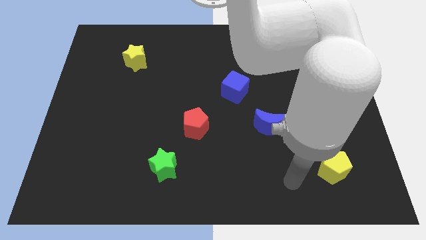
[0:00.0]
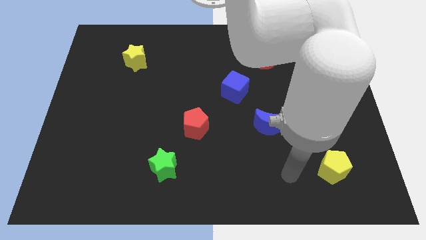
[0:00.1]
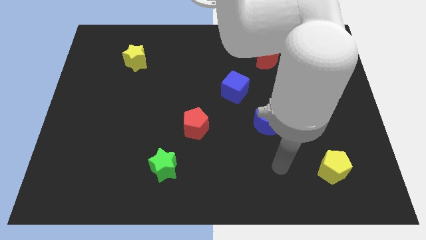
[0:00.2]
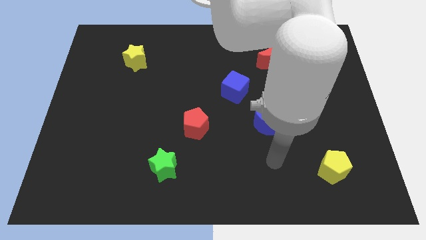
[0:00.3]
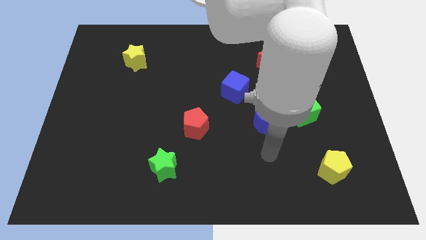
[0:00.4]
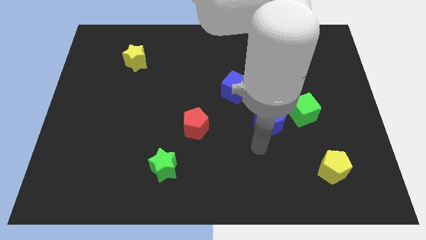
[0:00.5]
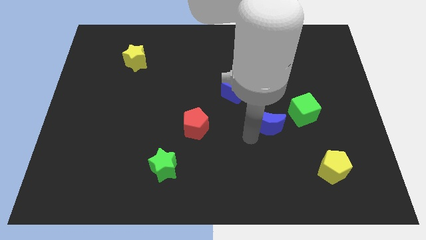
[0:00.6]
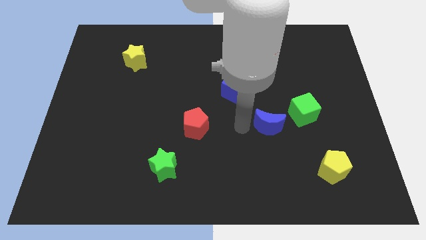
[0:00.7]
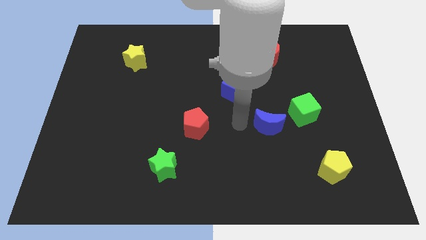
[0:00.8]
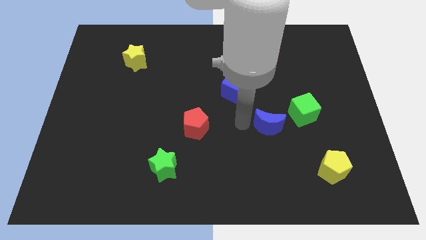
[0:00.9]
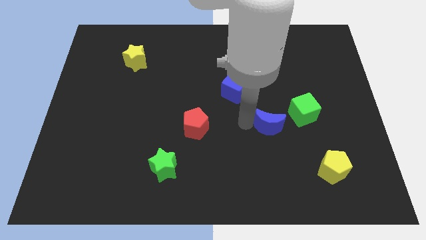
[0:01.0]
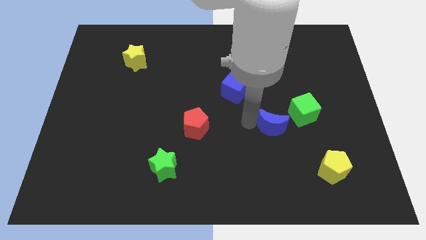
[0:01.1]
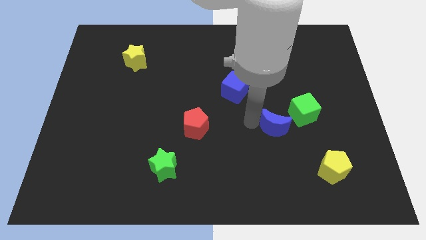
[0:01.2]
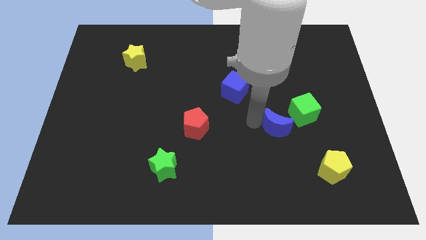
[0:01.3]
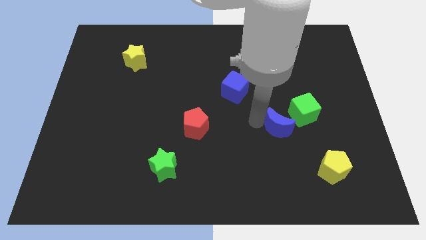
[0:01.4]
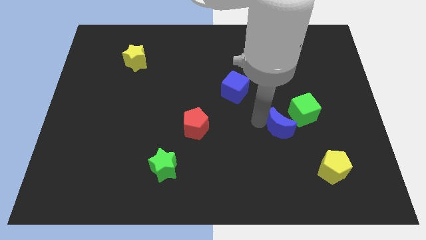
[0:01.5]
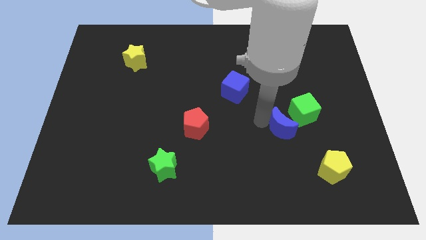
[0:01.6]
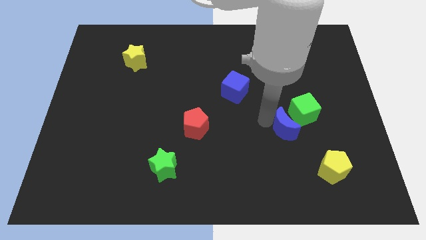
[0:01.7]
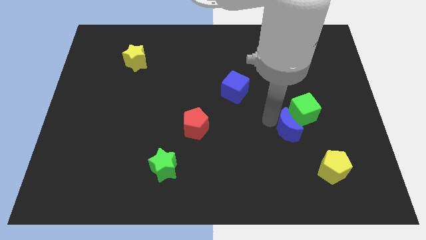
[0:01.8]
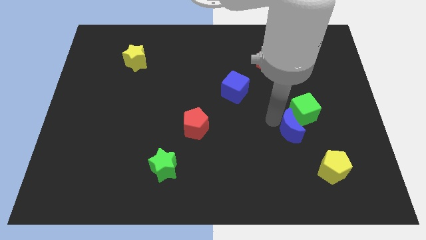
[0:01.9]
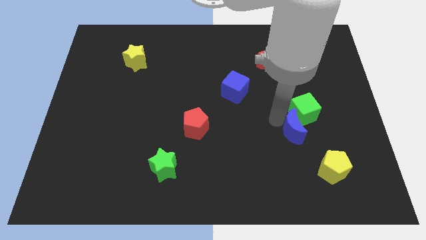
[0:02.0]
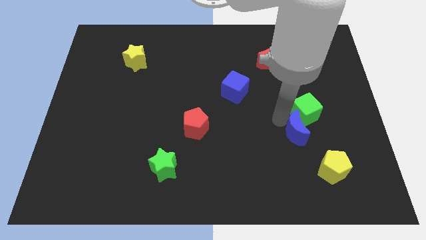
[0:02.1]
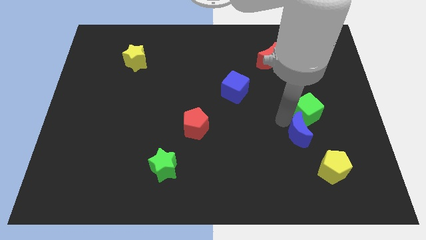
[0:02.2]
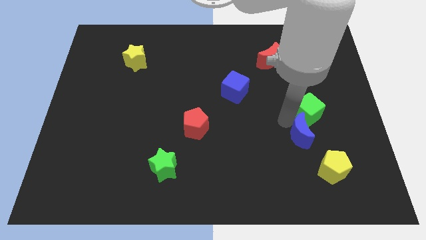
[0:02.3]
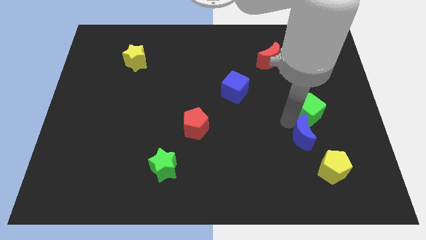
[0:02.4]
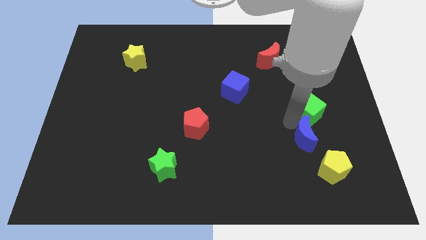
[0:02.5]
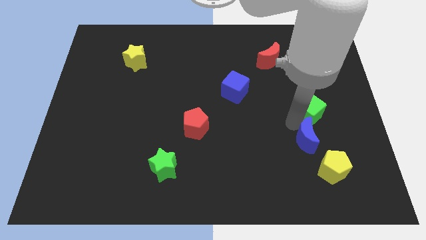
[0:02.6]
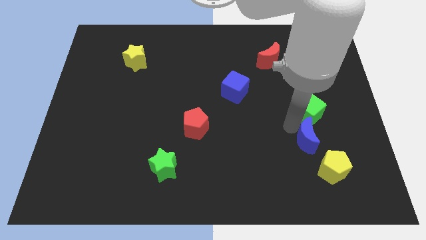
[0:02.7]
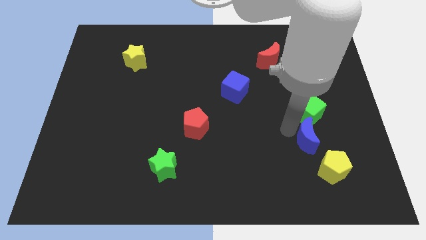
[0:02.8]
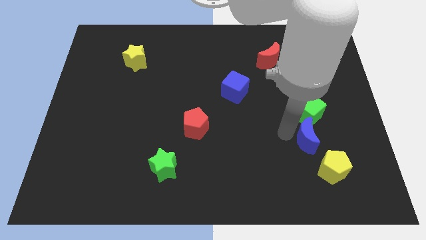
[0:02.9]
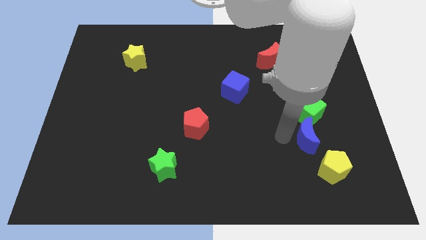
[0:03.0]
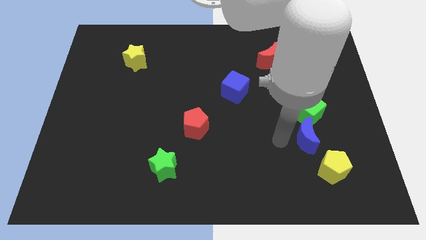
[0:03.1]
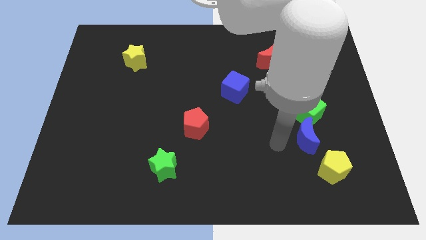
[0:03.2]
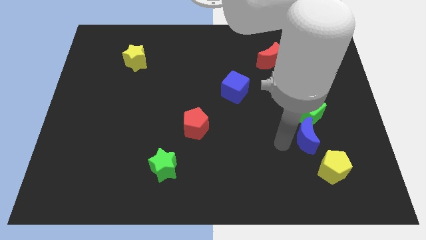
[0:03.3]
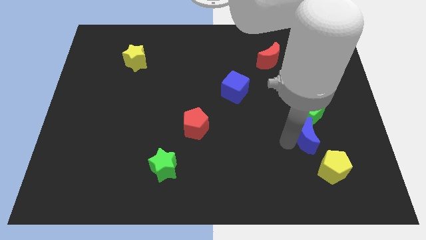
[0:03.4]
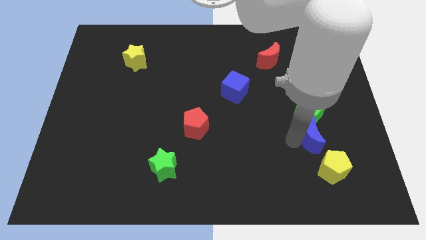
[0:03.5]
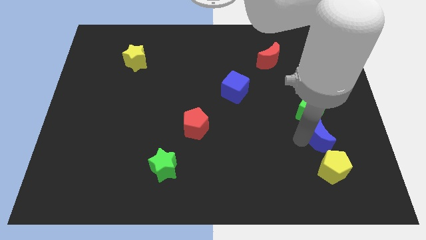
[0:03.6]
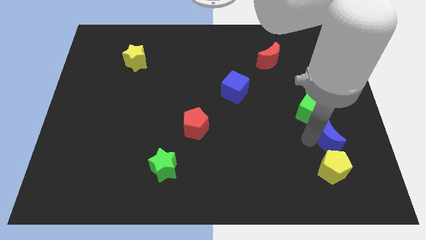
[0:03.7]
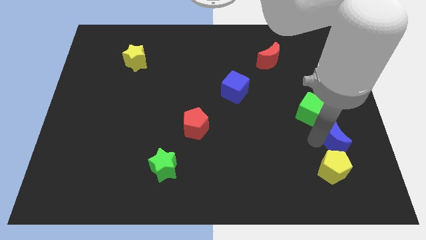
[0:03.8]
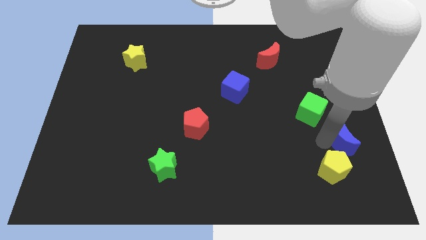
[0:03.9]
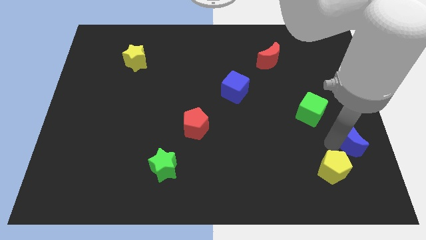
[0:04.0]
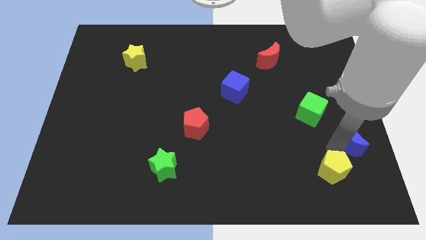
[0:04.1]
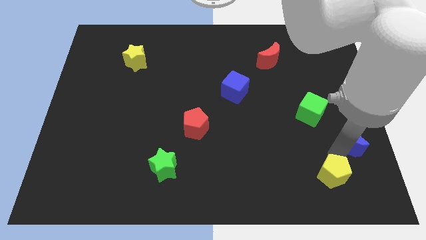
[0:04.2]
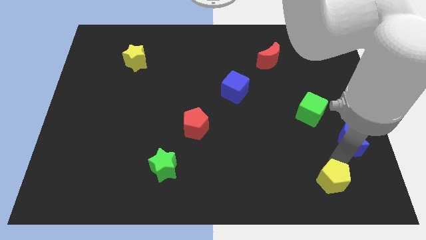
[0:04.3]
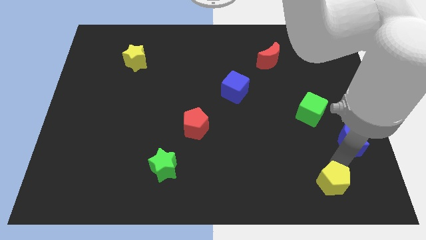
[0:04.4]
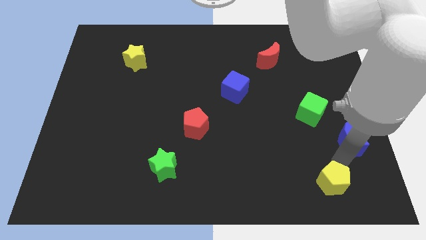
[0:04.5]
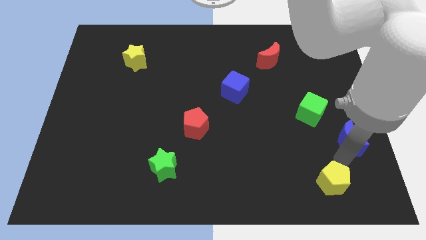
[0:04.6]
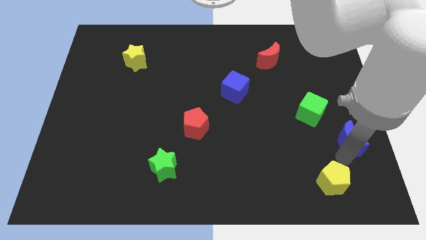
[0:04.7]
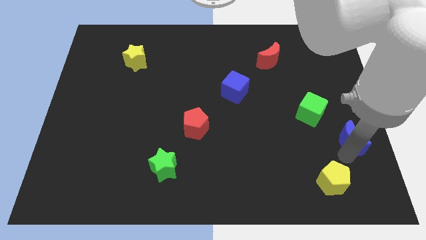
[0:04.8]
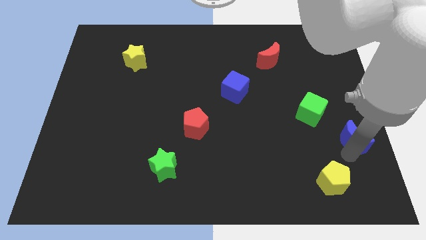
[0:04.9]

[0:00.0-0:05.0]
push the blue moon to the right side of the board

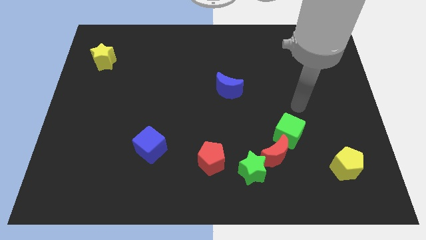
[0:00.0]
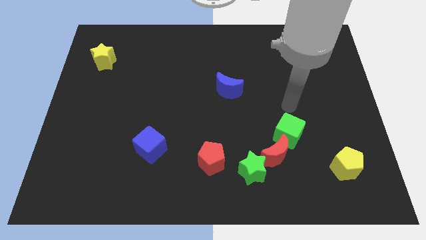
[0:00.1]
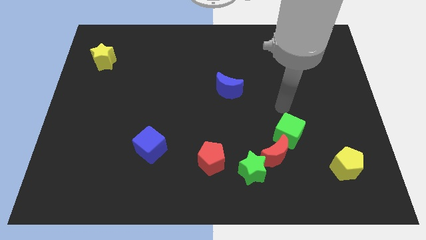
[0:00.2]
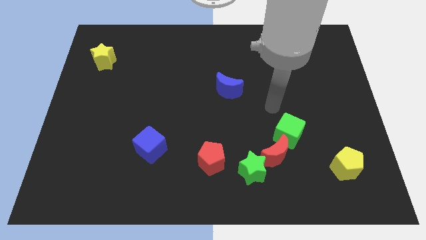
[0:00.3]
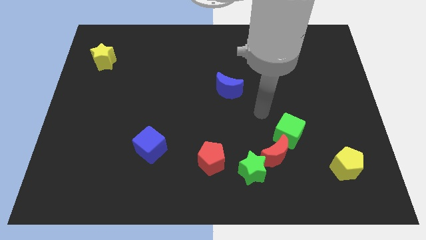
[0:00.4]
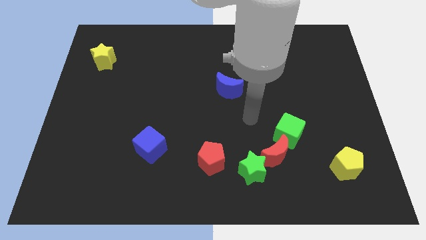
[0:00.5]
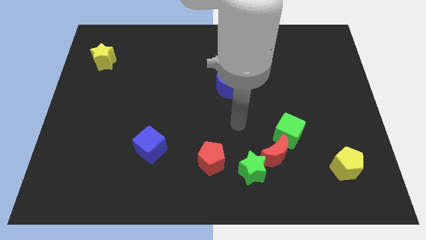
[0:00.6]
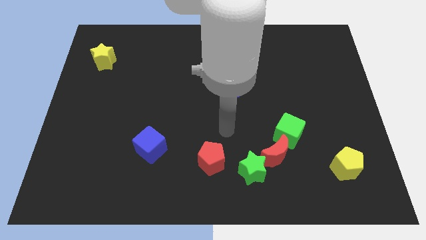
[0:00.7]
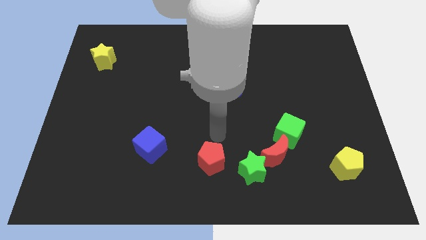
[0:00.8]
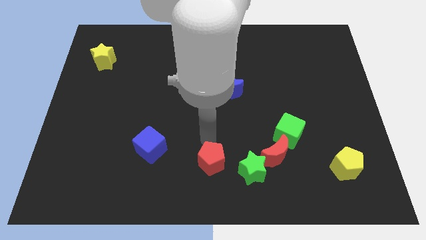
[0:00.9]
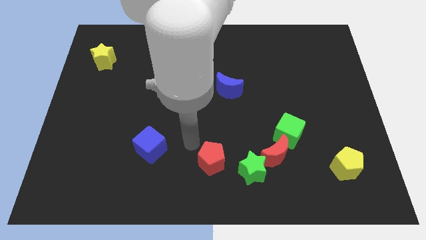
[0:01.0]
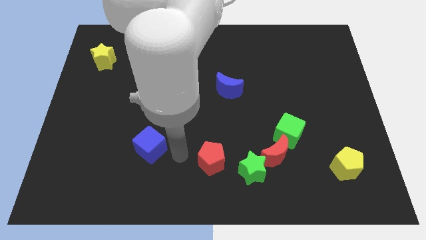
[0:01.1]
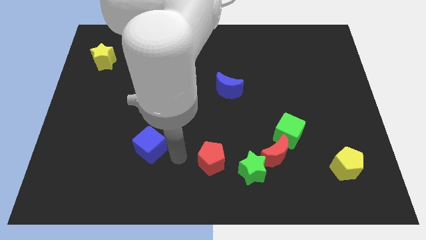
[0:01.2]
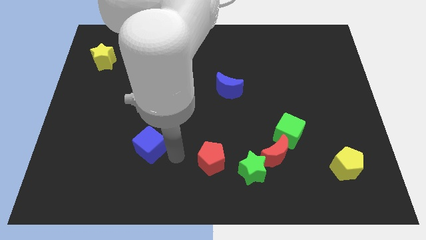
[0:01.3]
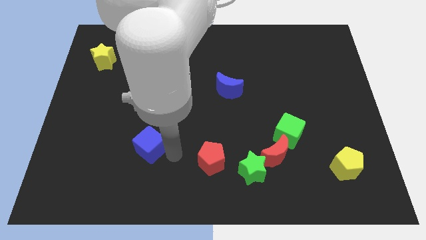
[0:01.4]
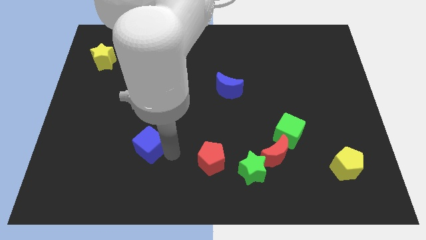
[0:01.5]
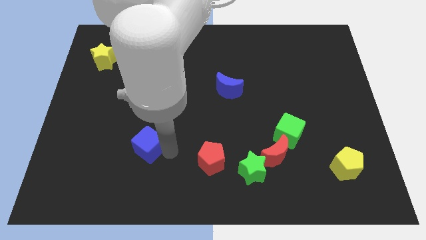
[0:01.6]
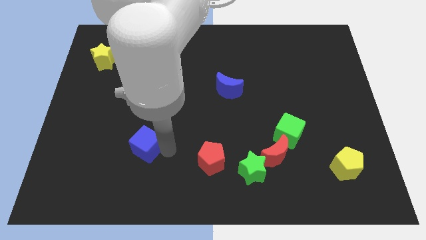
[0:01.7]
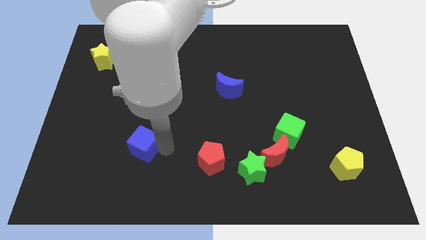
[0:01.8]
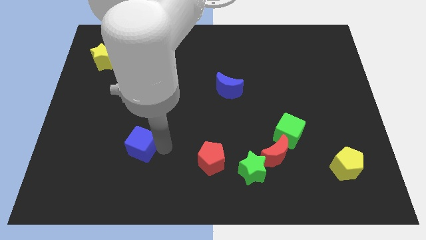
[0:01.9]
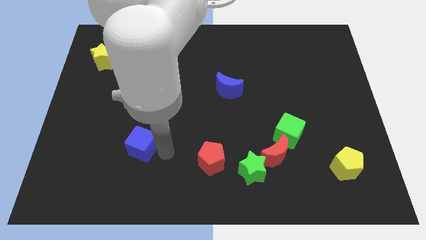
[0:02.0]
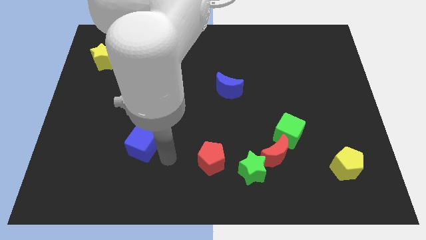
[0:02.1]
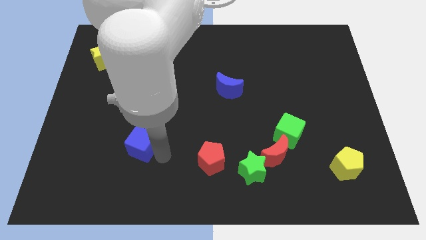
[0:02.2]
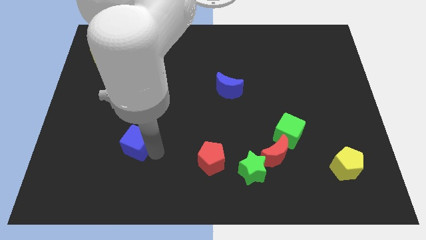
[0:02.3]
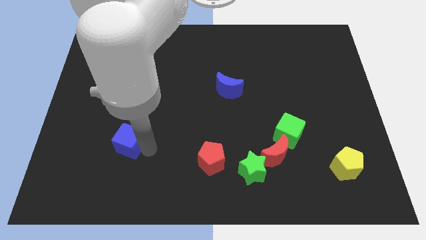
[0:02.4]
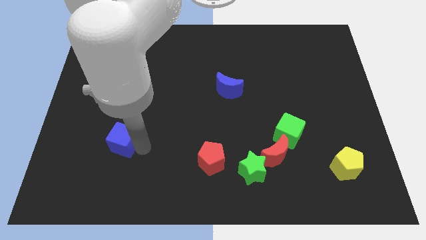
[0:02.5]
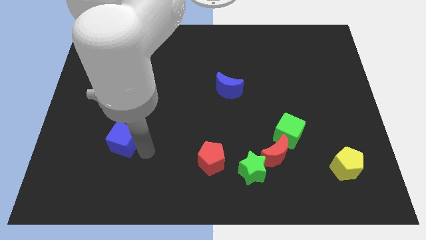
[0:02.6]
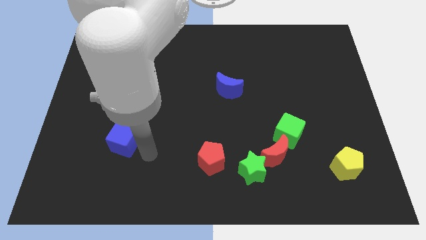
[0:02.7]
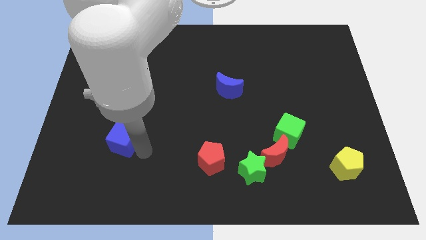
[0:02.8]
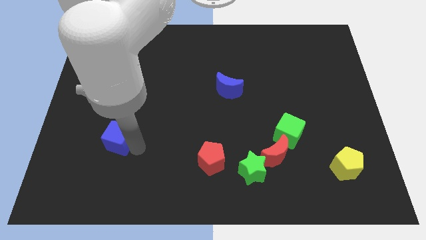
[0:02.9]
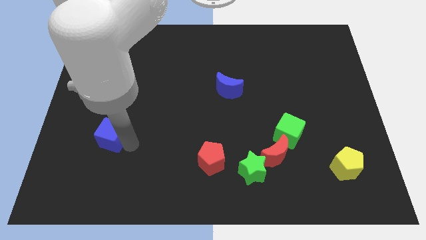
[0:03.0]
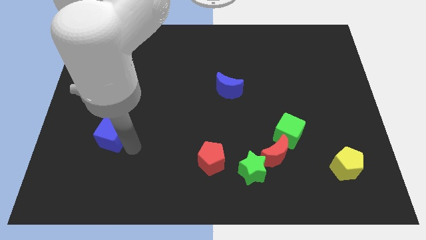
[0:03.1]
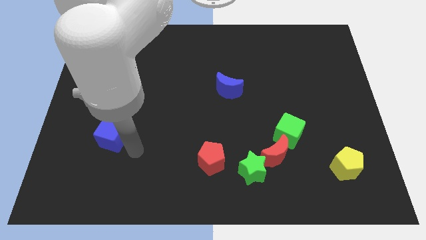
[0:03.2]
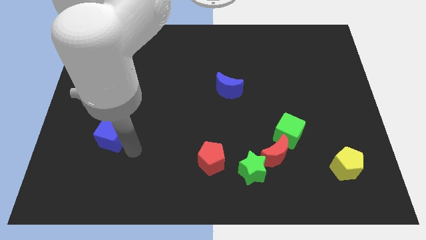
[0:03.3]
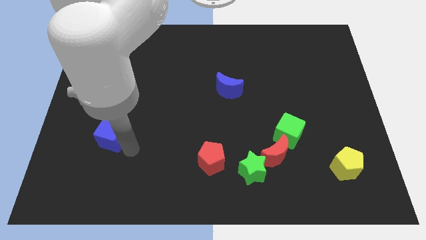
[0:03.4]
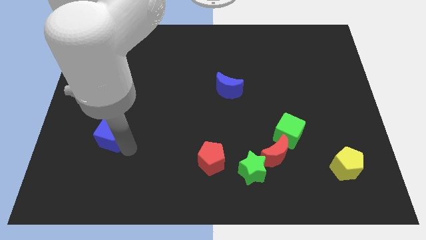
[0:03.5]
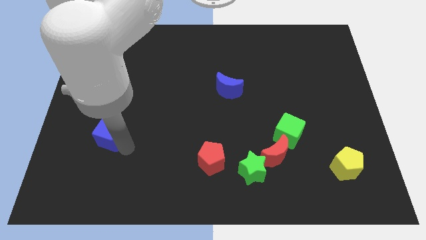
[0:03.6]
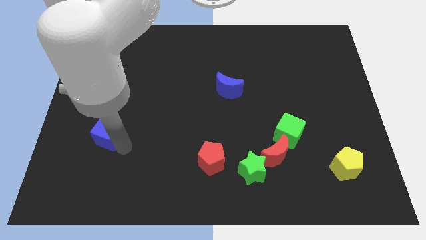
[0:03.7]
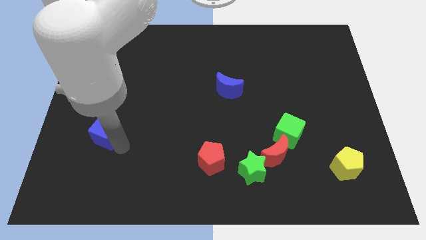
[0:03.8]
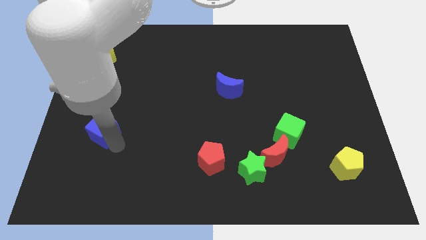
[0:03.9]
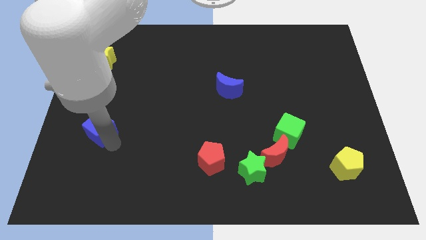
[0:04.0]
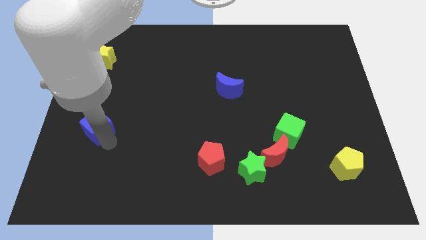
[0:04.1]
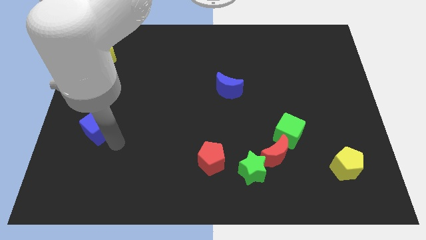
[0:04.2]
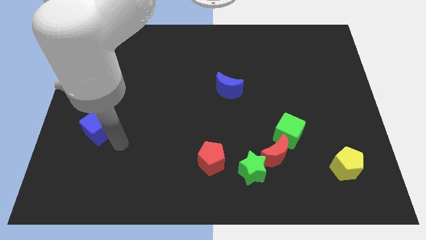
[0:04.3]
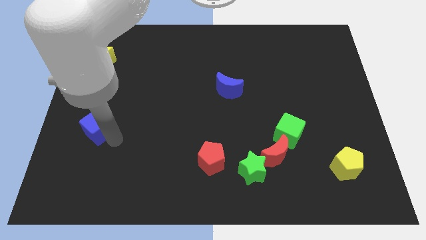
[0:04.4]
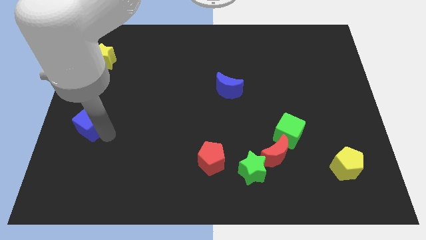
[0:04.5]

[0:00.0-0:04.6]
push the blue cube to the center left
